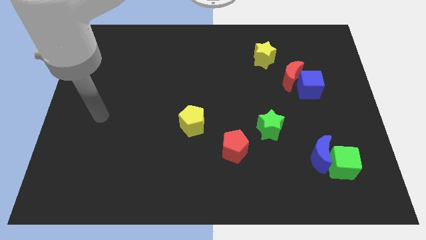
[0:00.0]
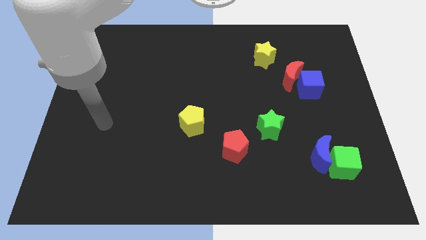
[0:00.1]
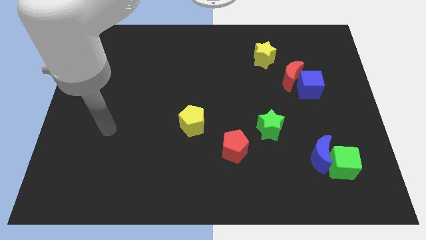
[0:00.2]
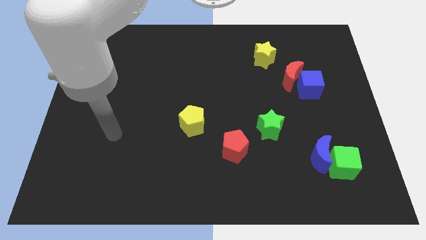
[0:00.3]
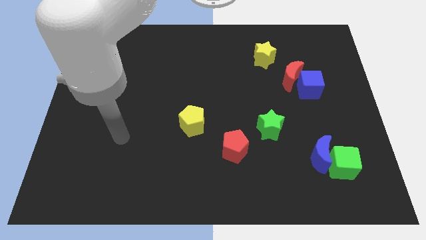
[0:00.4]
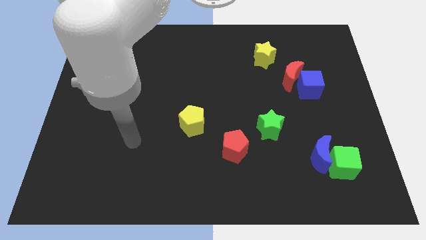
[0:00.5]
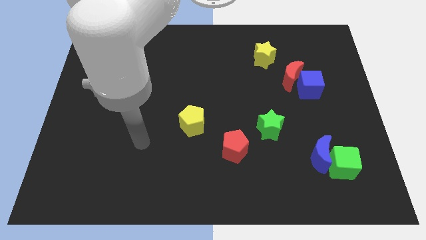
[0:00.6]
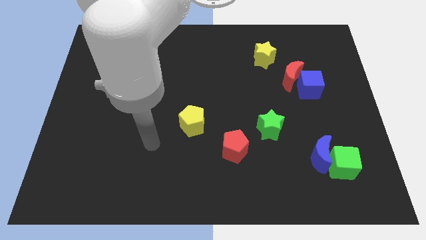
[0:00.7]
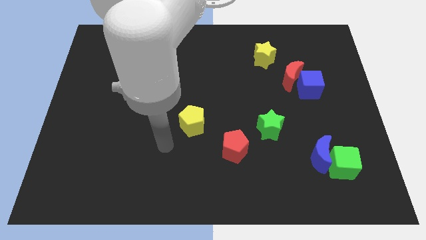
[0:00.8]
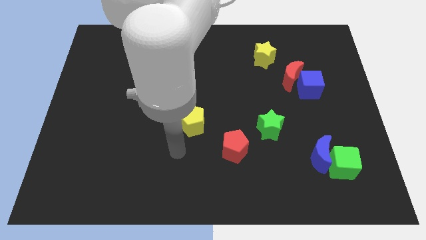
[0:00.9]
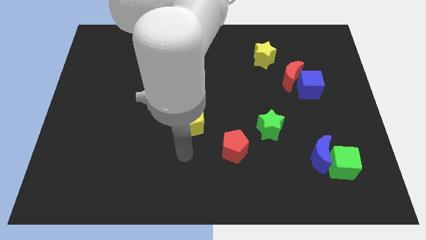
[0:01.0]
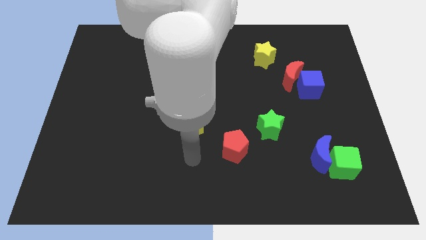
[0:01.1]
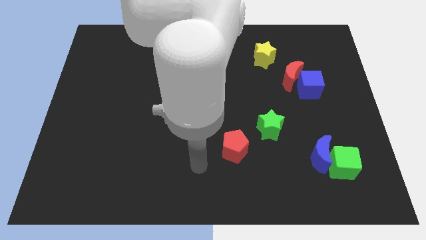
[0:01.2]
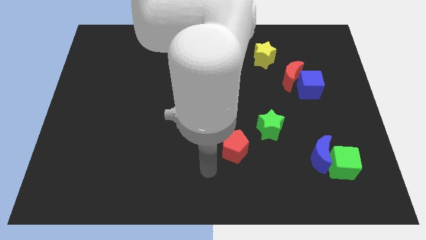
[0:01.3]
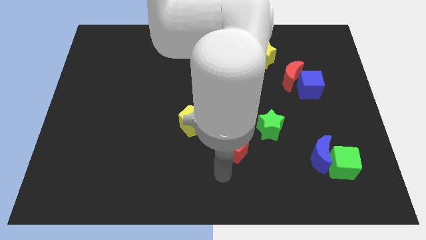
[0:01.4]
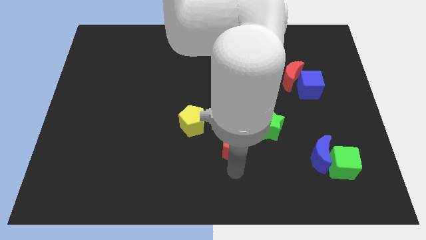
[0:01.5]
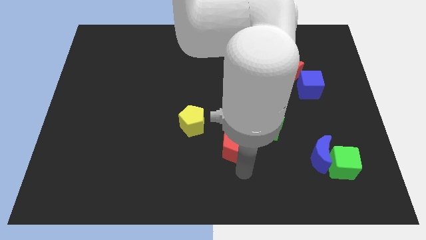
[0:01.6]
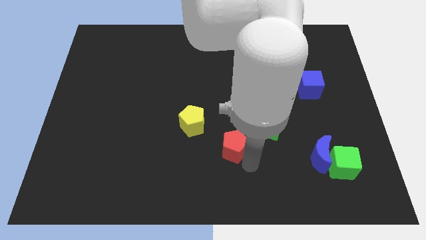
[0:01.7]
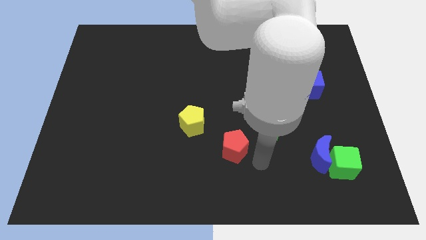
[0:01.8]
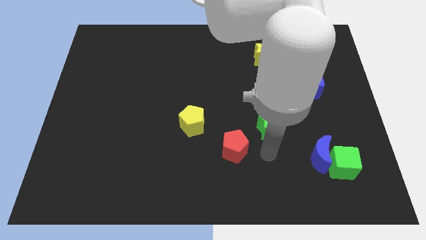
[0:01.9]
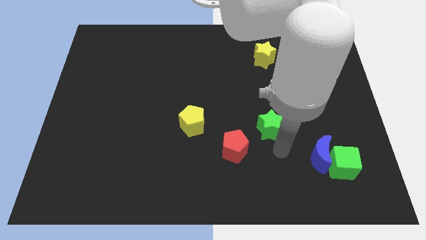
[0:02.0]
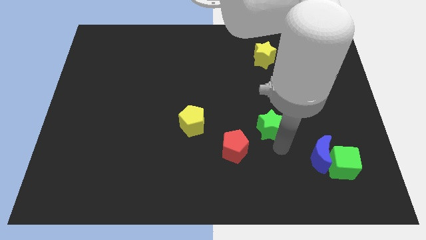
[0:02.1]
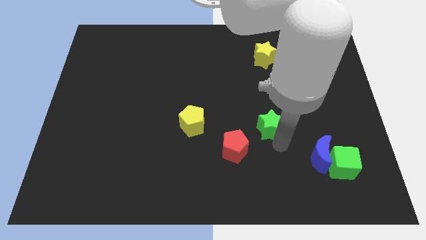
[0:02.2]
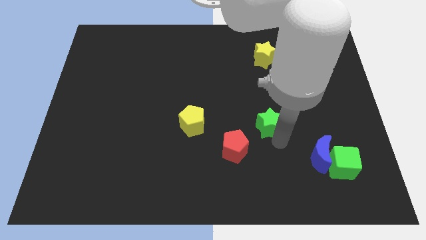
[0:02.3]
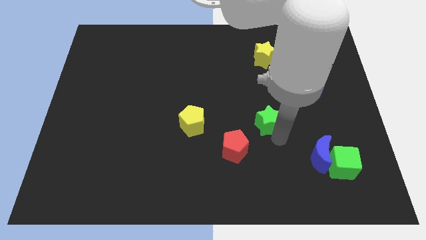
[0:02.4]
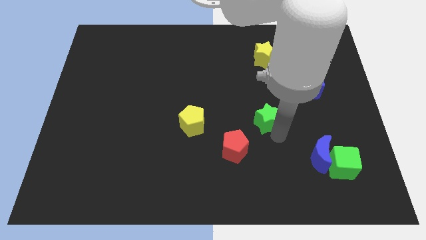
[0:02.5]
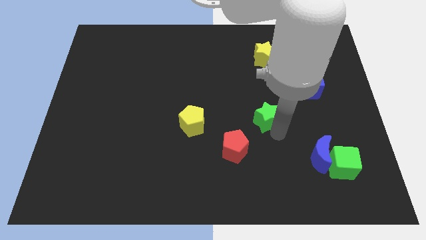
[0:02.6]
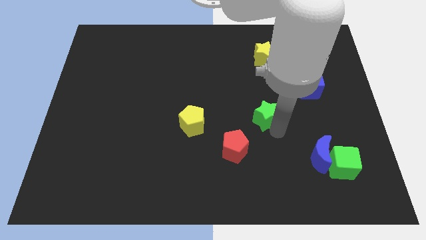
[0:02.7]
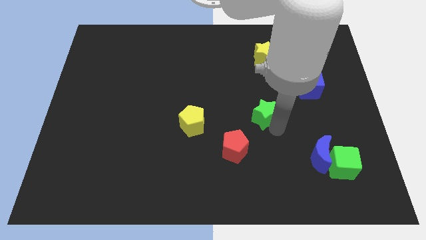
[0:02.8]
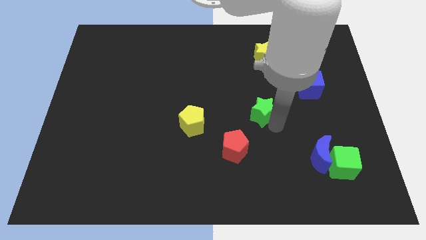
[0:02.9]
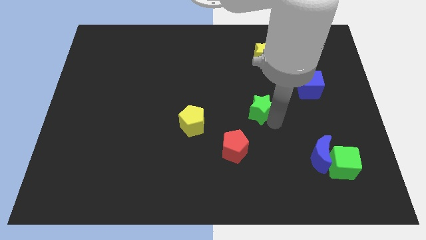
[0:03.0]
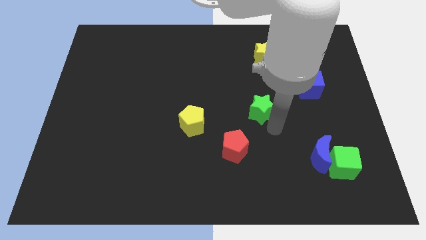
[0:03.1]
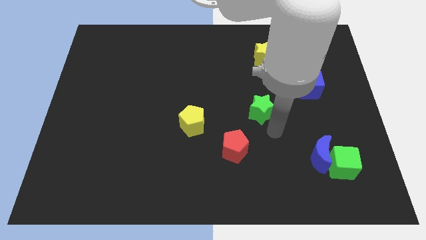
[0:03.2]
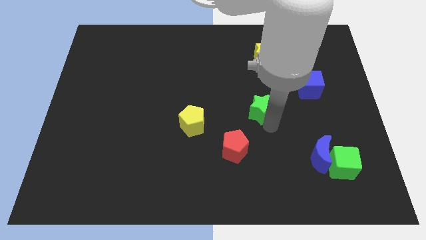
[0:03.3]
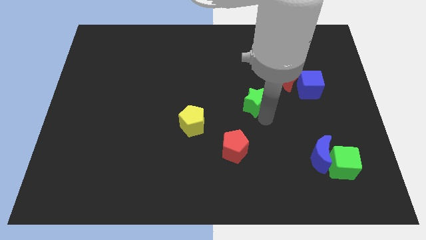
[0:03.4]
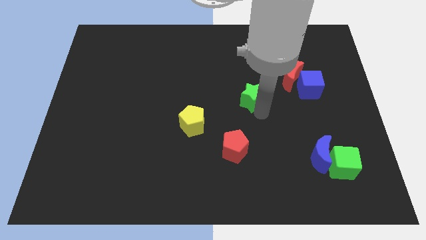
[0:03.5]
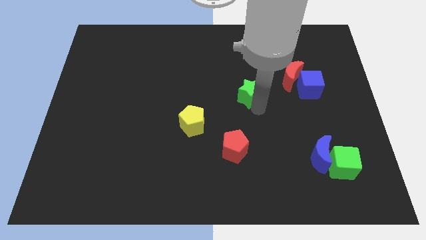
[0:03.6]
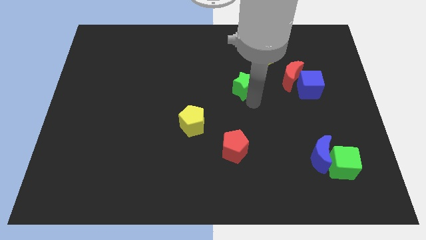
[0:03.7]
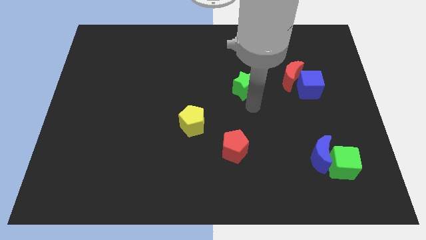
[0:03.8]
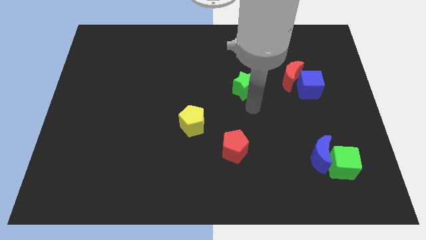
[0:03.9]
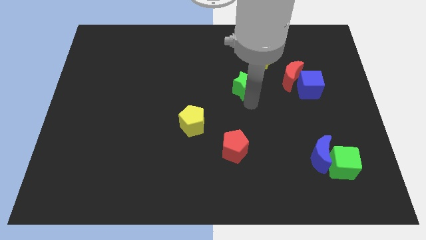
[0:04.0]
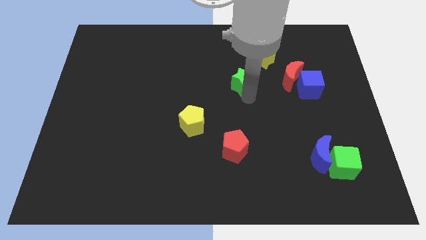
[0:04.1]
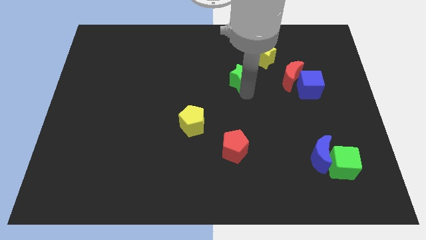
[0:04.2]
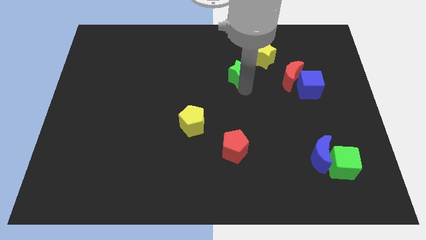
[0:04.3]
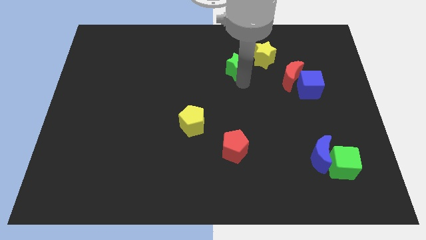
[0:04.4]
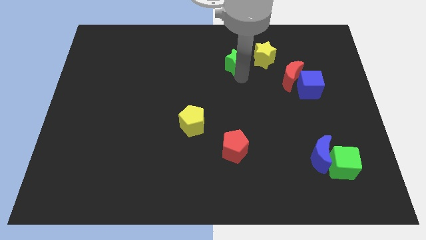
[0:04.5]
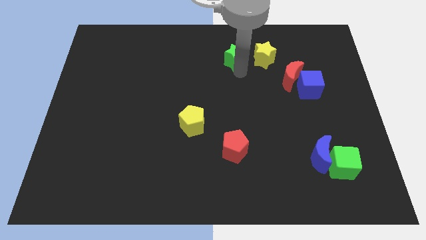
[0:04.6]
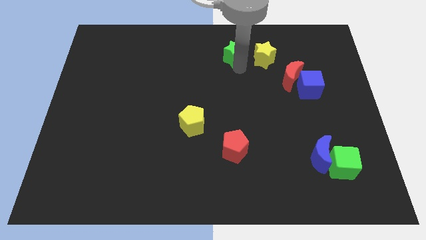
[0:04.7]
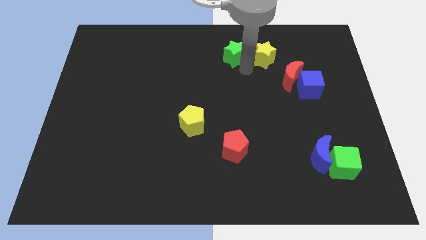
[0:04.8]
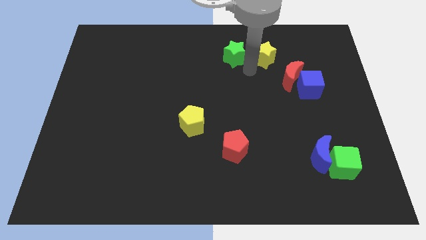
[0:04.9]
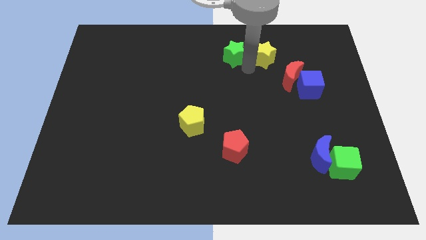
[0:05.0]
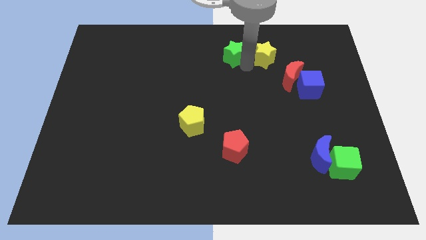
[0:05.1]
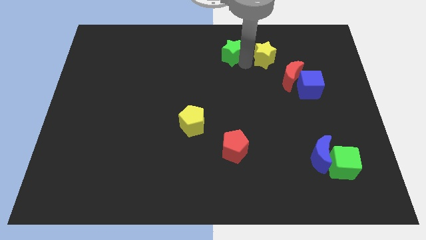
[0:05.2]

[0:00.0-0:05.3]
move the green star to the towards your base

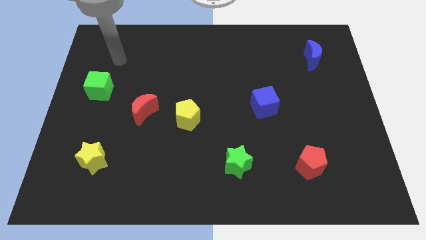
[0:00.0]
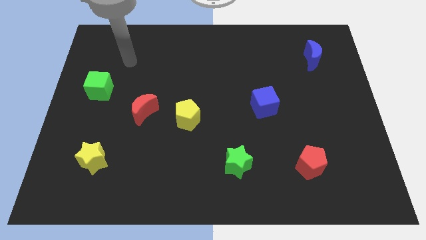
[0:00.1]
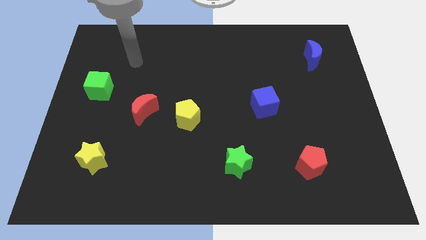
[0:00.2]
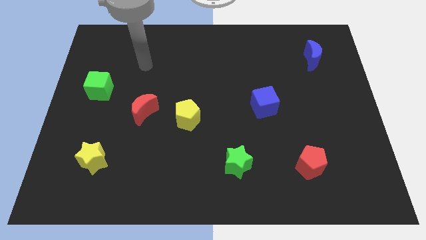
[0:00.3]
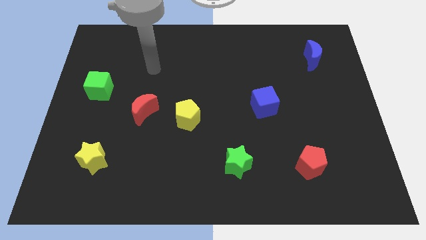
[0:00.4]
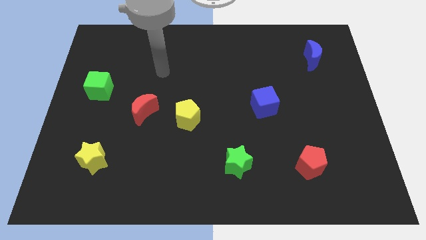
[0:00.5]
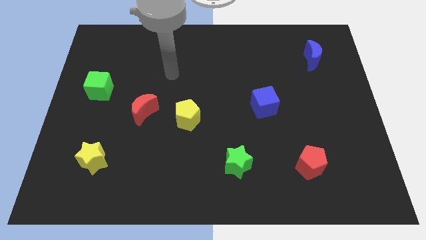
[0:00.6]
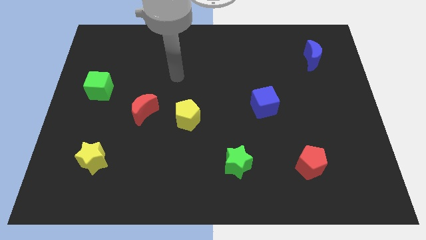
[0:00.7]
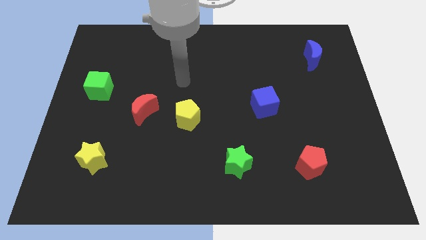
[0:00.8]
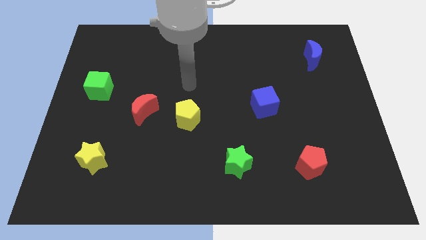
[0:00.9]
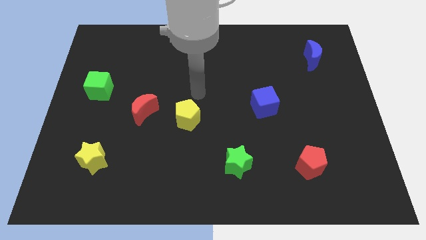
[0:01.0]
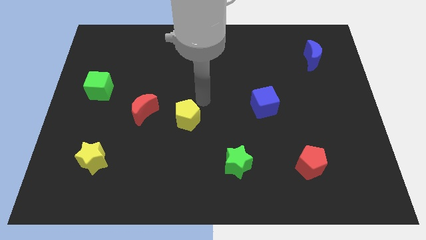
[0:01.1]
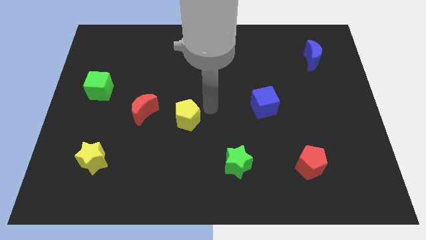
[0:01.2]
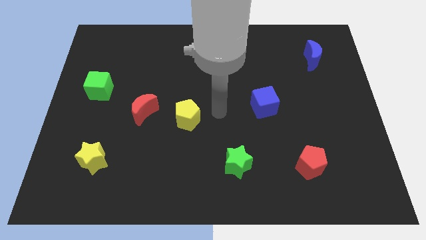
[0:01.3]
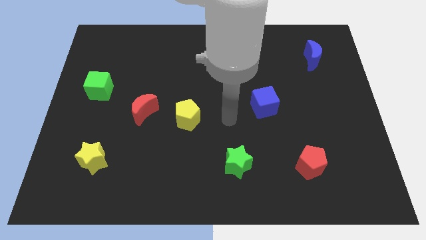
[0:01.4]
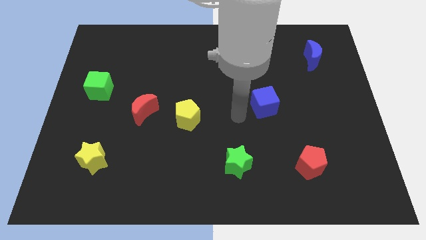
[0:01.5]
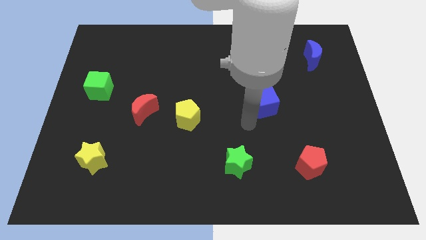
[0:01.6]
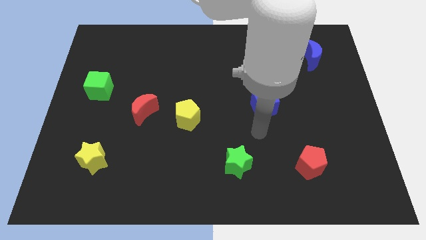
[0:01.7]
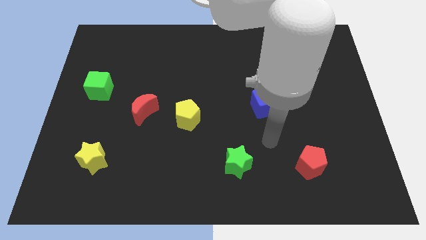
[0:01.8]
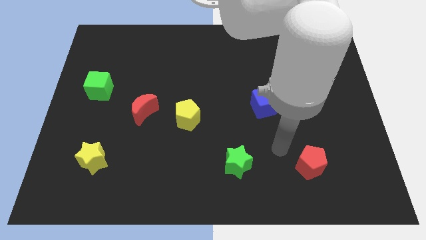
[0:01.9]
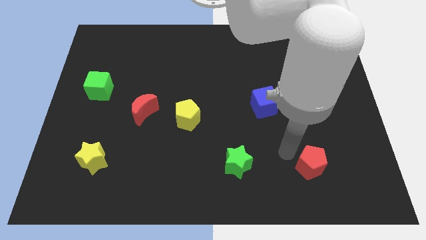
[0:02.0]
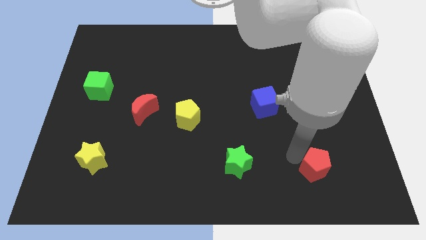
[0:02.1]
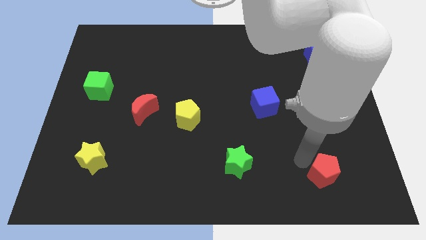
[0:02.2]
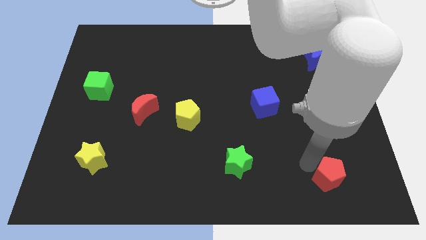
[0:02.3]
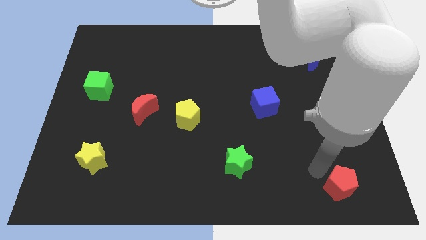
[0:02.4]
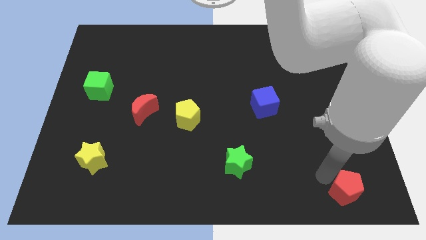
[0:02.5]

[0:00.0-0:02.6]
move the red pentagon to the bottom right of the board
